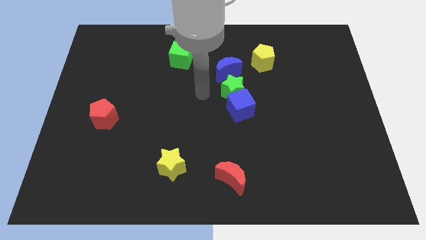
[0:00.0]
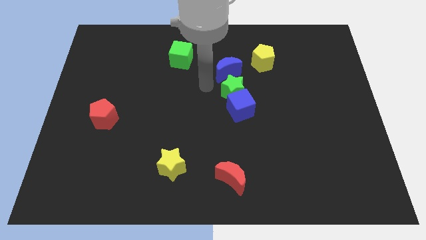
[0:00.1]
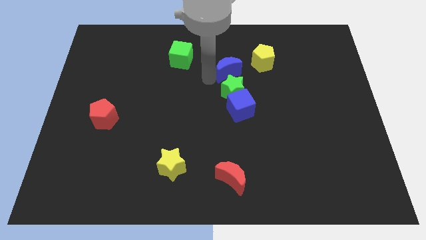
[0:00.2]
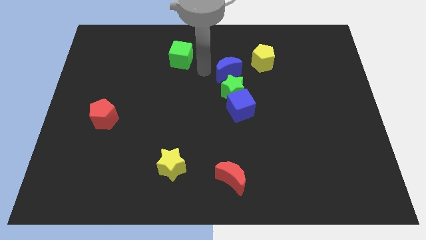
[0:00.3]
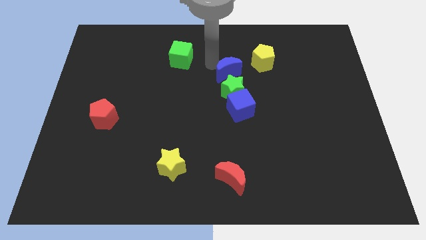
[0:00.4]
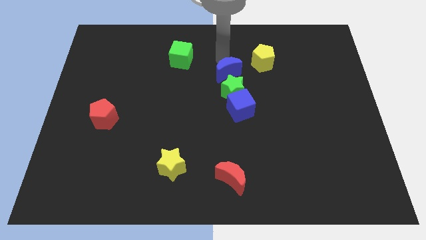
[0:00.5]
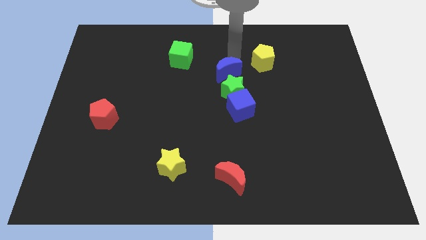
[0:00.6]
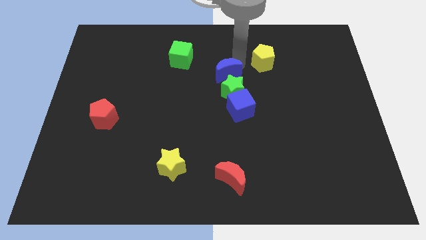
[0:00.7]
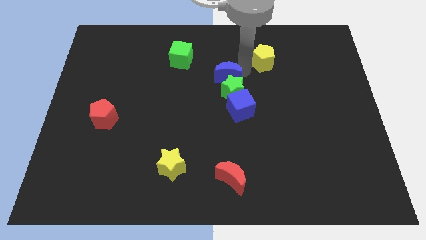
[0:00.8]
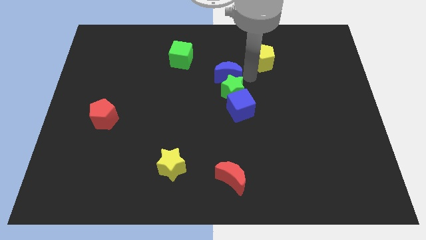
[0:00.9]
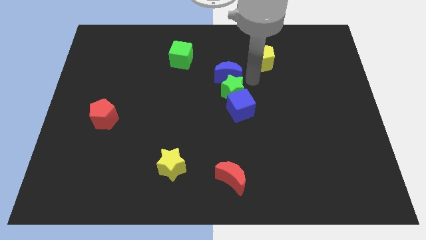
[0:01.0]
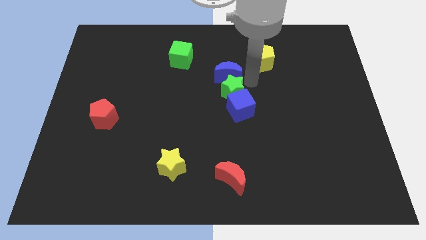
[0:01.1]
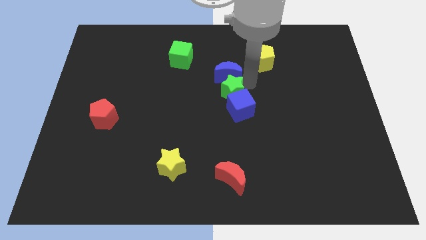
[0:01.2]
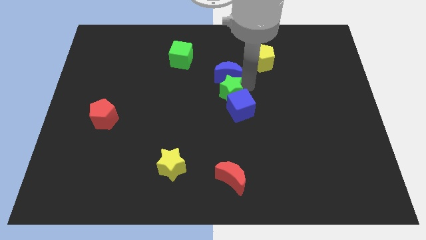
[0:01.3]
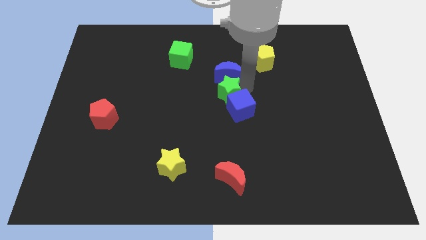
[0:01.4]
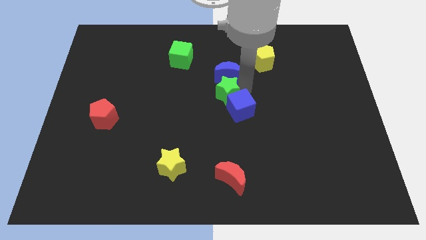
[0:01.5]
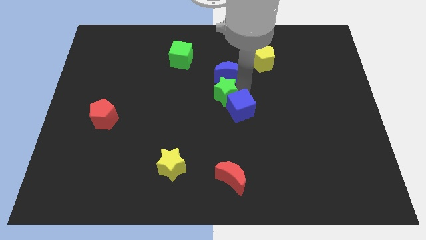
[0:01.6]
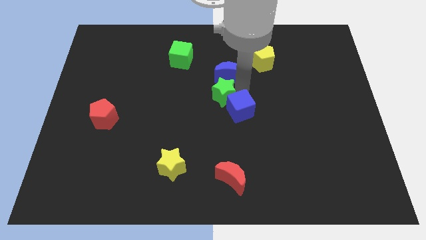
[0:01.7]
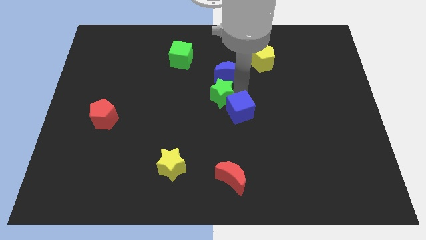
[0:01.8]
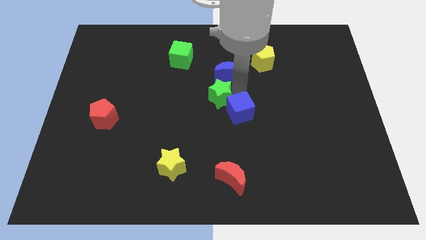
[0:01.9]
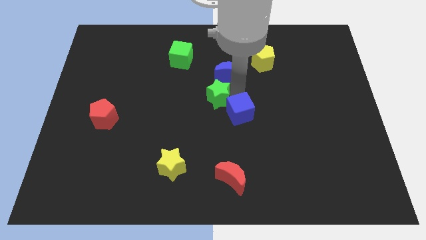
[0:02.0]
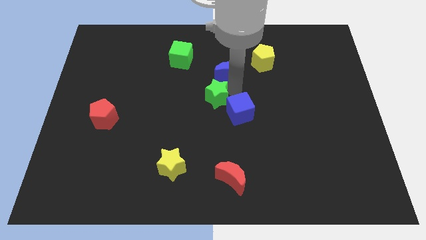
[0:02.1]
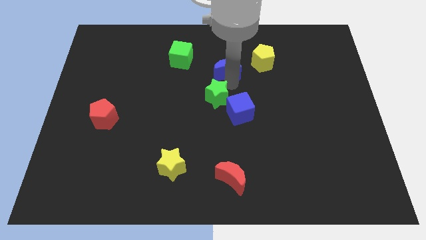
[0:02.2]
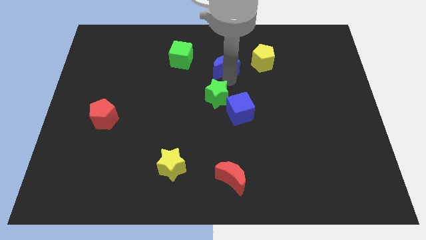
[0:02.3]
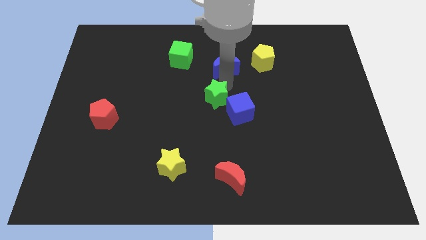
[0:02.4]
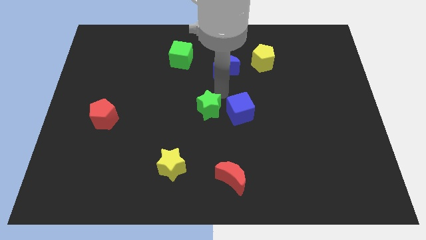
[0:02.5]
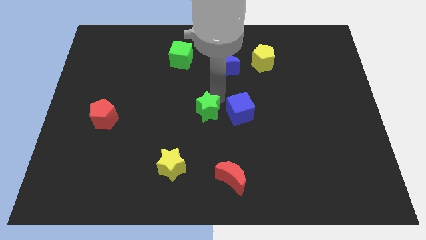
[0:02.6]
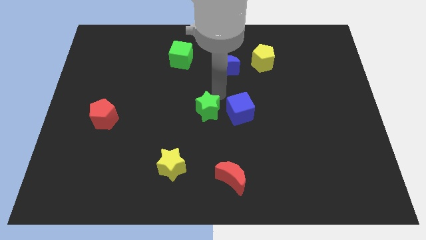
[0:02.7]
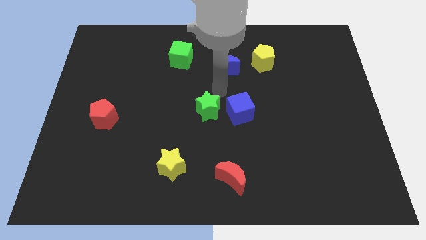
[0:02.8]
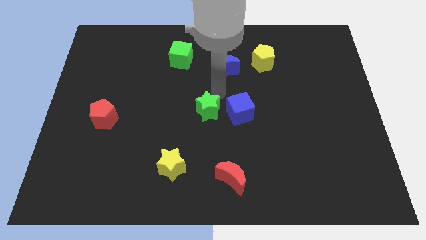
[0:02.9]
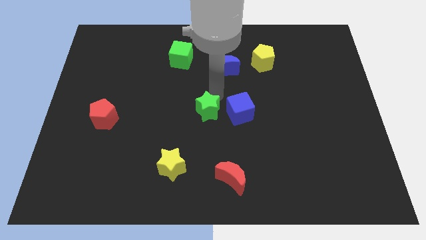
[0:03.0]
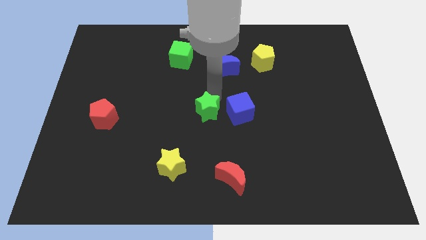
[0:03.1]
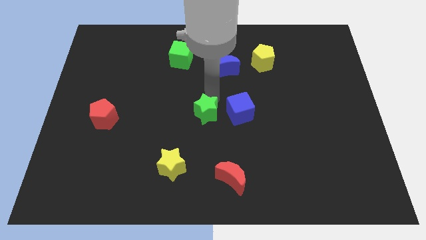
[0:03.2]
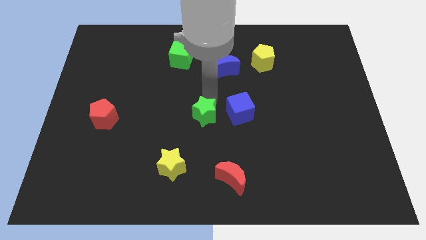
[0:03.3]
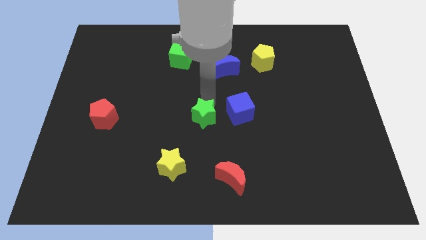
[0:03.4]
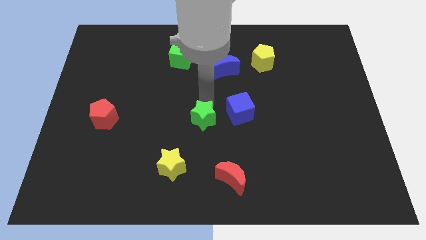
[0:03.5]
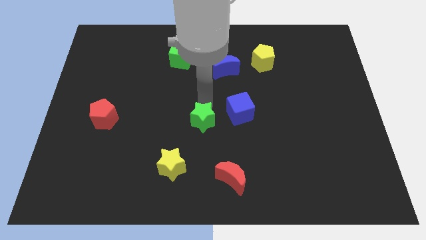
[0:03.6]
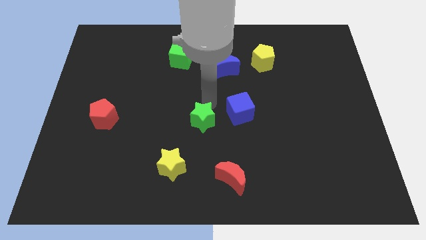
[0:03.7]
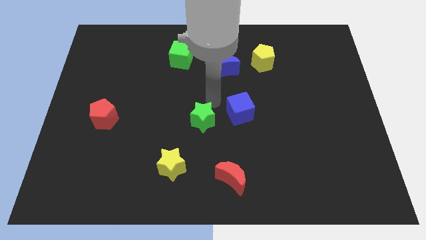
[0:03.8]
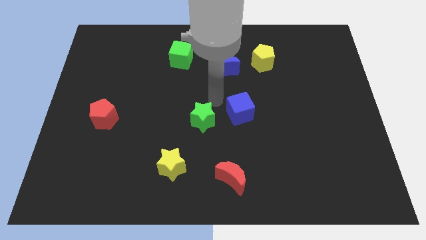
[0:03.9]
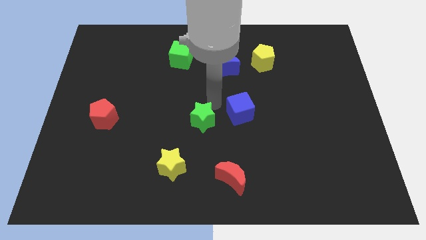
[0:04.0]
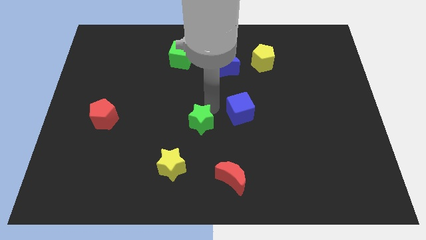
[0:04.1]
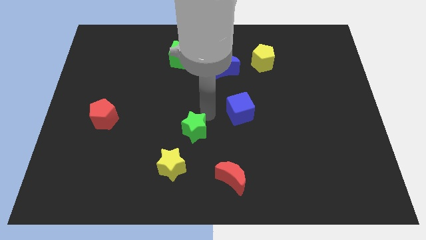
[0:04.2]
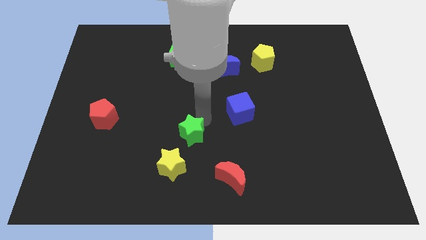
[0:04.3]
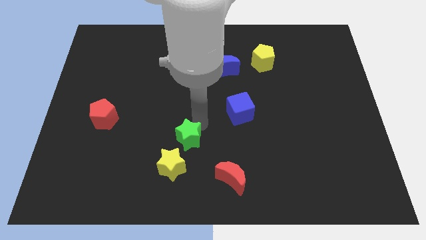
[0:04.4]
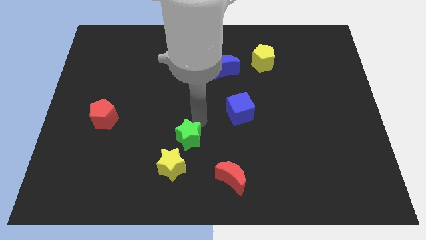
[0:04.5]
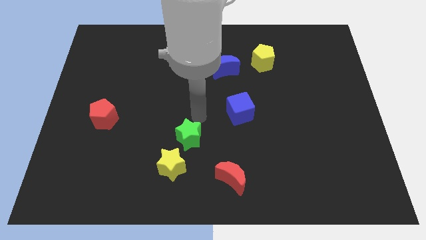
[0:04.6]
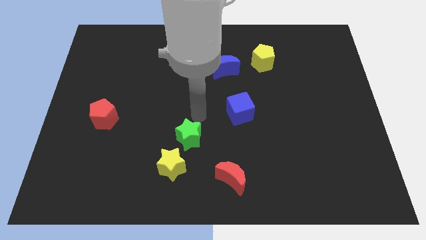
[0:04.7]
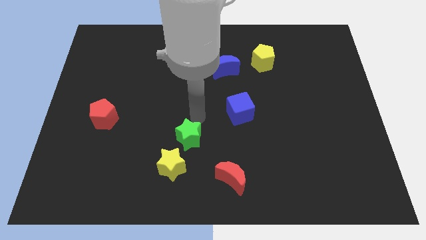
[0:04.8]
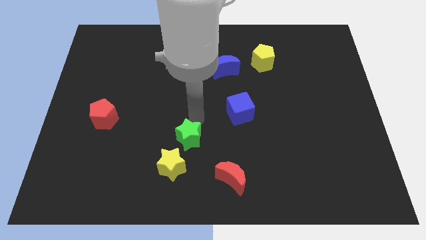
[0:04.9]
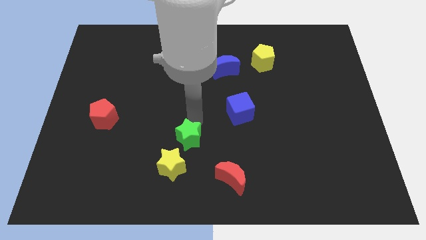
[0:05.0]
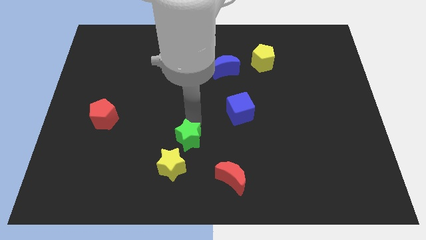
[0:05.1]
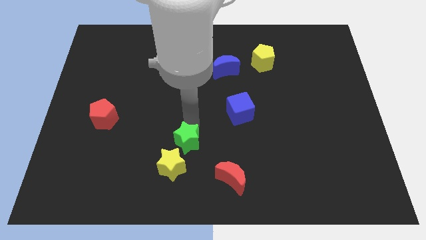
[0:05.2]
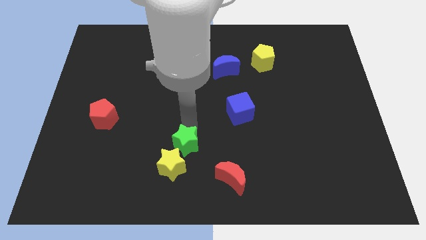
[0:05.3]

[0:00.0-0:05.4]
slide the green star towards the yellow star

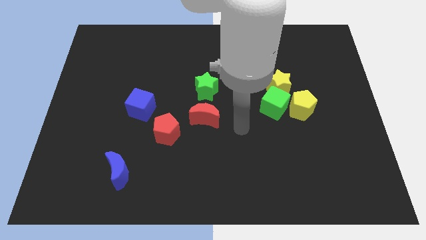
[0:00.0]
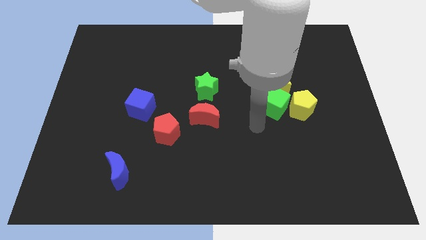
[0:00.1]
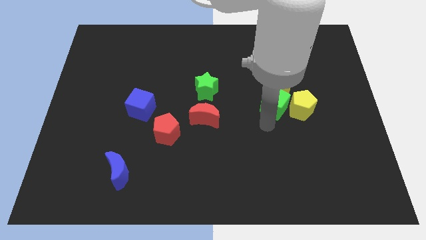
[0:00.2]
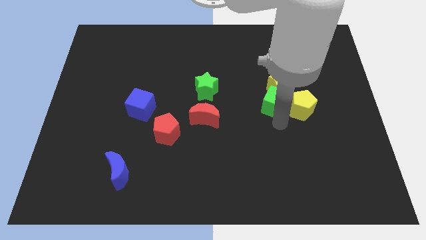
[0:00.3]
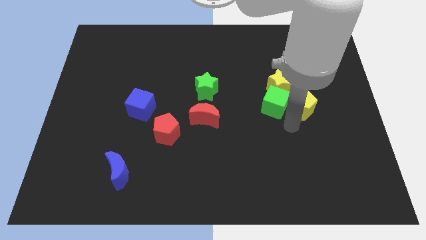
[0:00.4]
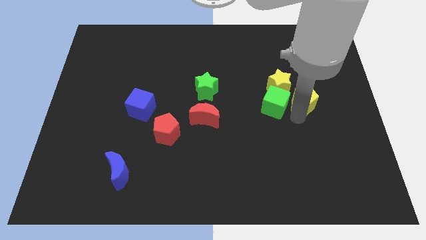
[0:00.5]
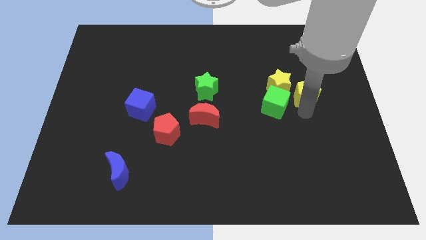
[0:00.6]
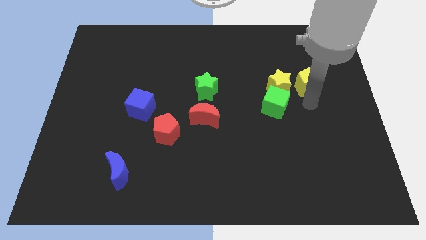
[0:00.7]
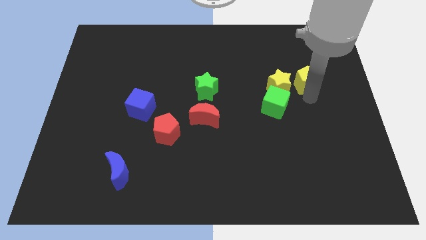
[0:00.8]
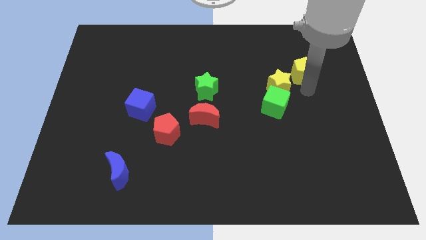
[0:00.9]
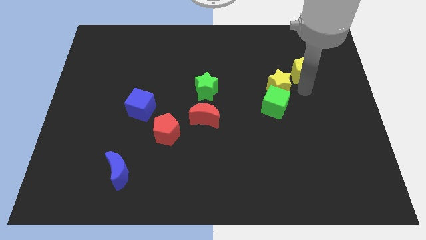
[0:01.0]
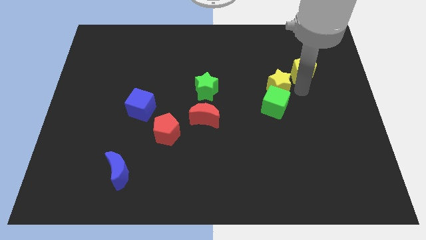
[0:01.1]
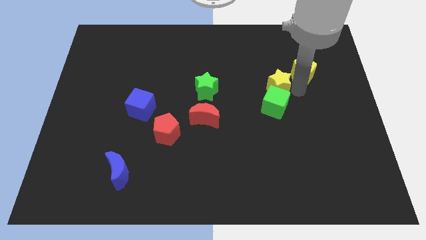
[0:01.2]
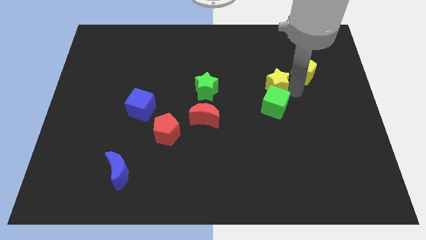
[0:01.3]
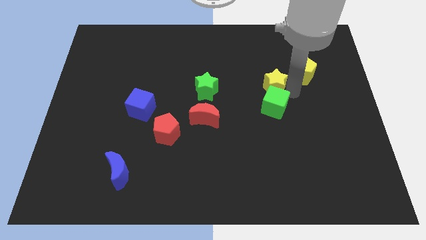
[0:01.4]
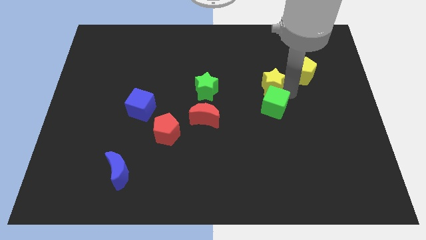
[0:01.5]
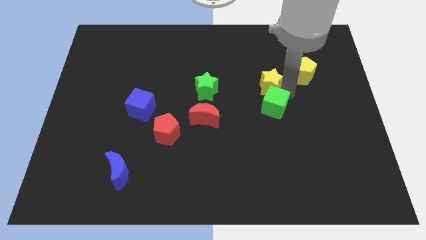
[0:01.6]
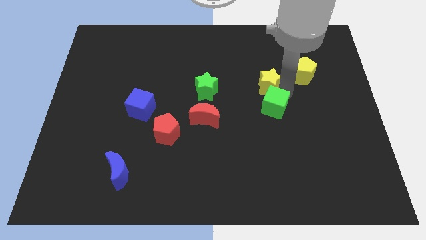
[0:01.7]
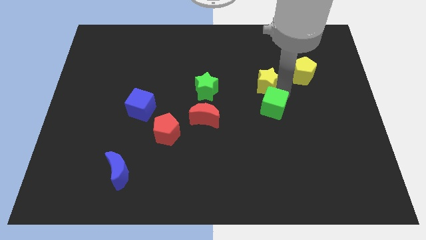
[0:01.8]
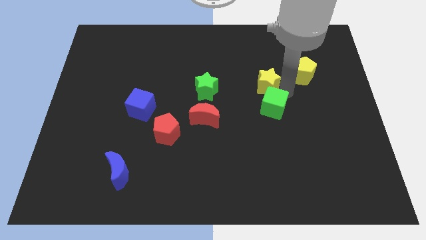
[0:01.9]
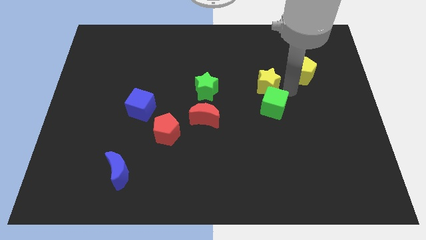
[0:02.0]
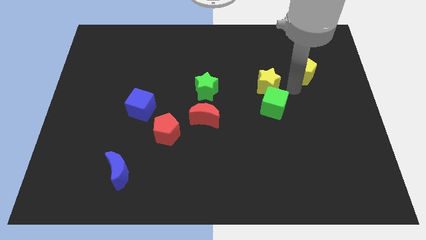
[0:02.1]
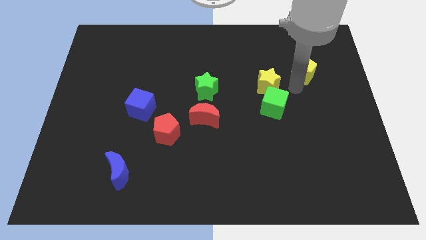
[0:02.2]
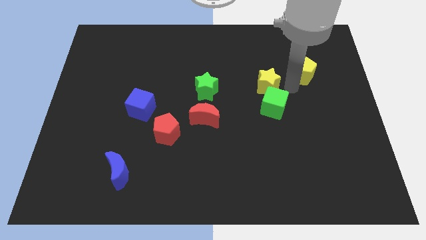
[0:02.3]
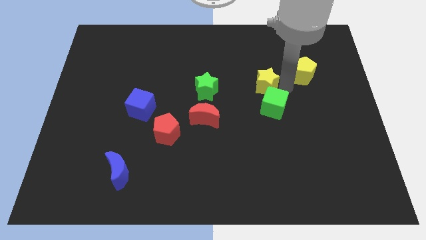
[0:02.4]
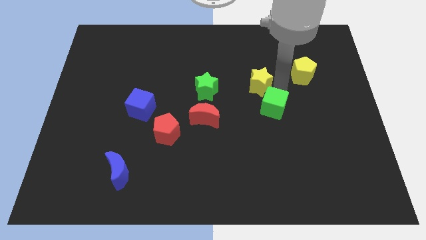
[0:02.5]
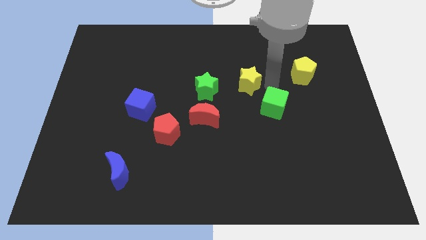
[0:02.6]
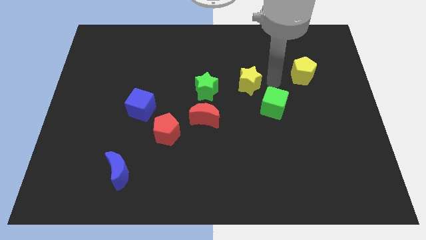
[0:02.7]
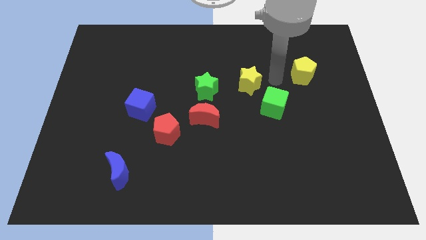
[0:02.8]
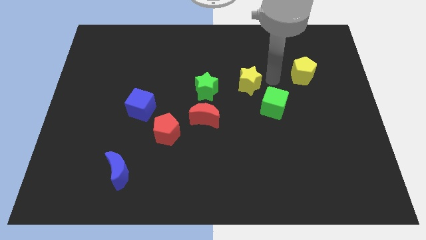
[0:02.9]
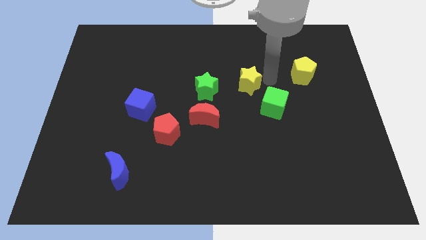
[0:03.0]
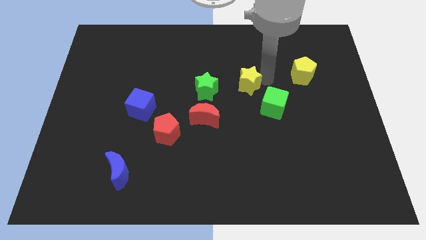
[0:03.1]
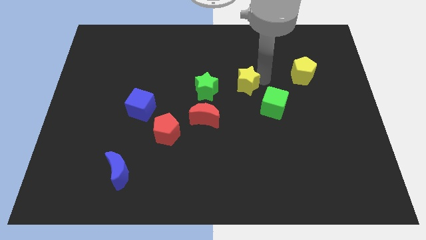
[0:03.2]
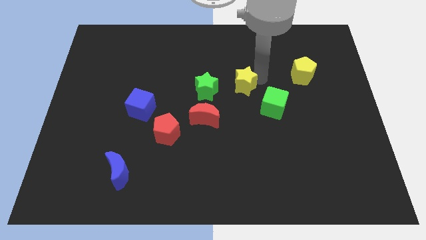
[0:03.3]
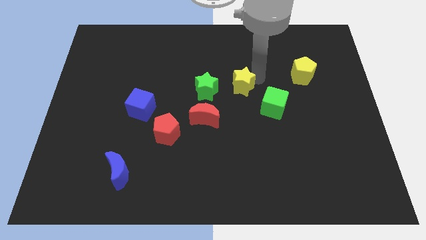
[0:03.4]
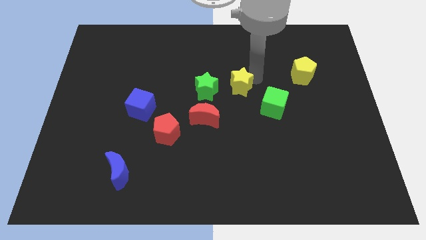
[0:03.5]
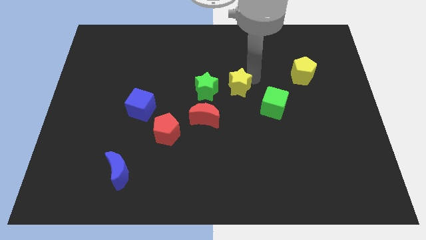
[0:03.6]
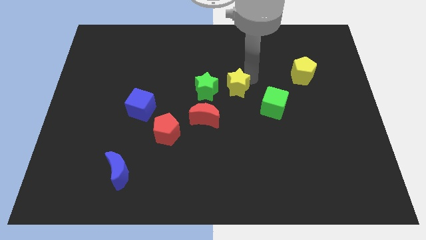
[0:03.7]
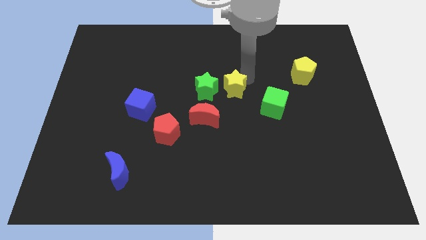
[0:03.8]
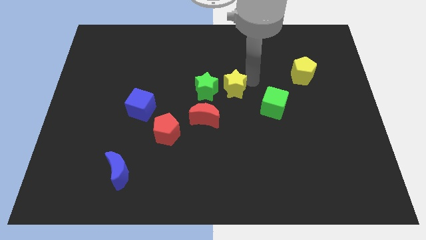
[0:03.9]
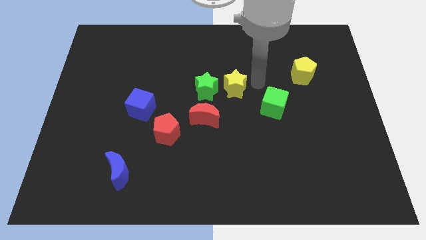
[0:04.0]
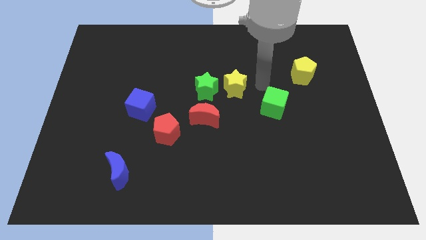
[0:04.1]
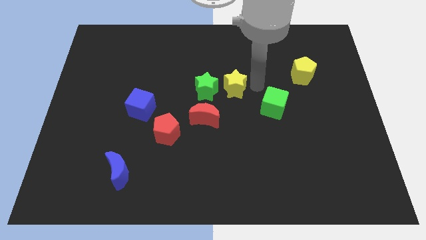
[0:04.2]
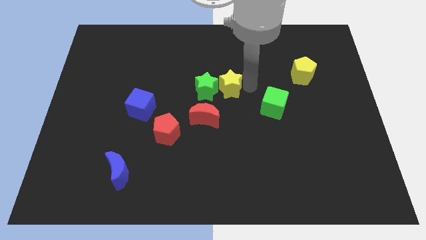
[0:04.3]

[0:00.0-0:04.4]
push the yellow star towards the green star
